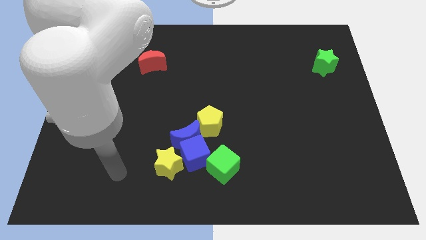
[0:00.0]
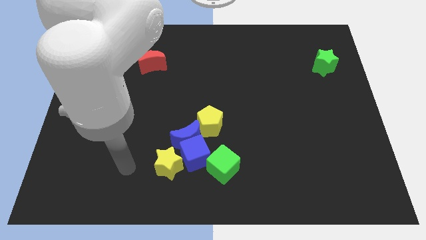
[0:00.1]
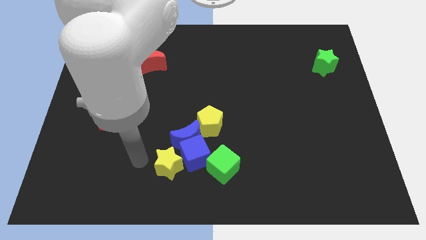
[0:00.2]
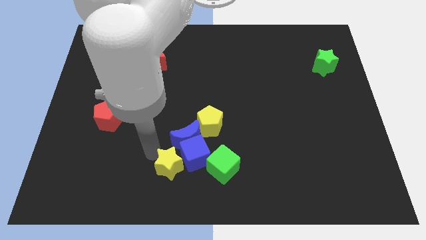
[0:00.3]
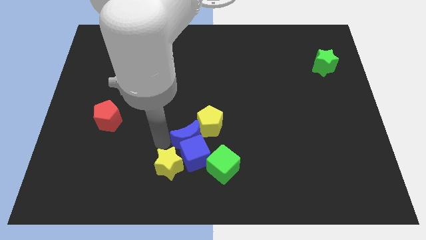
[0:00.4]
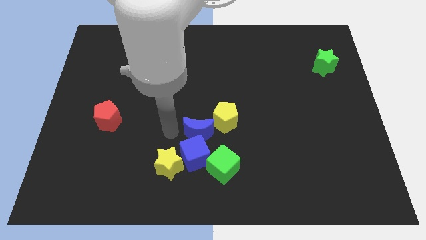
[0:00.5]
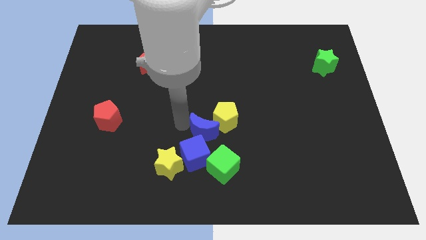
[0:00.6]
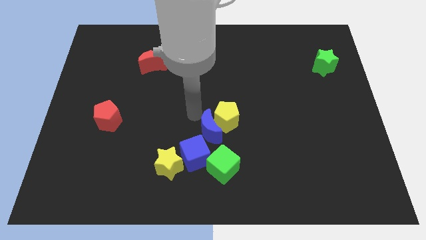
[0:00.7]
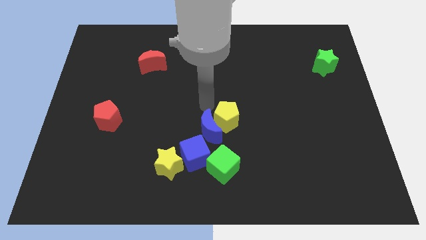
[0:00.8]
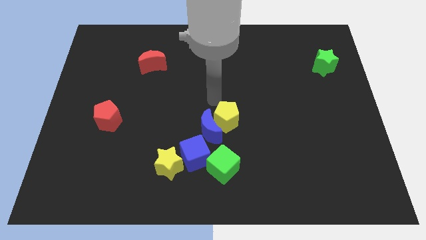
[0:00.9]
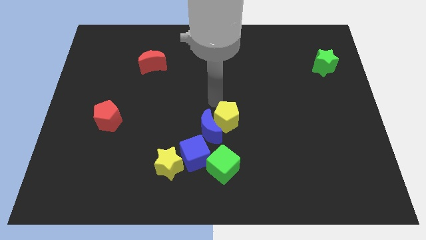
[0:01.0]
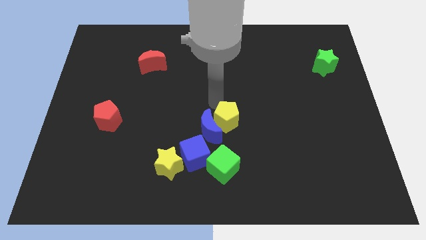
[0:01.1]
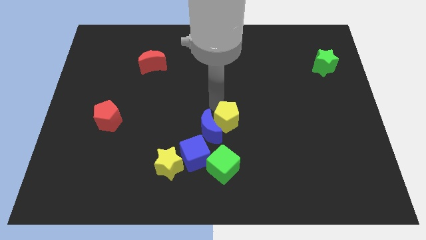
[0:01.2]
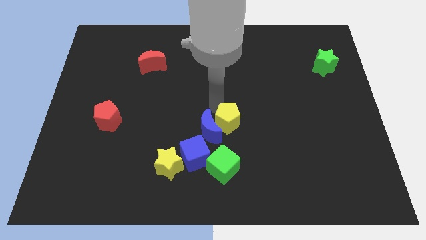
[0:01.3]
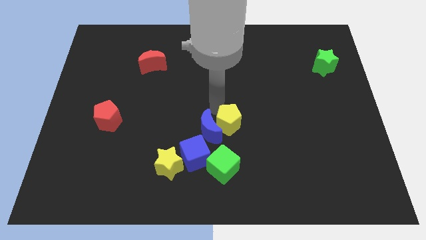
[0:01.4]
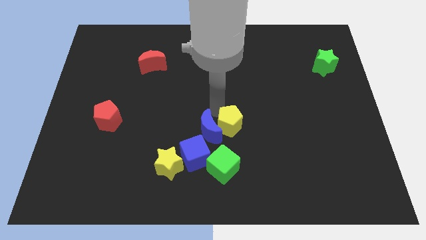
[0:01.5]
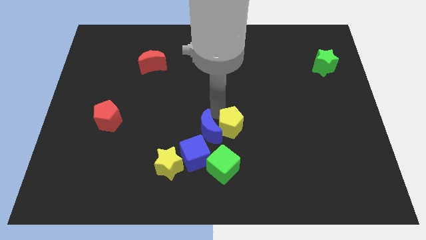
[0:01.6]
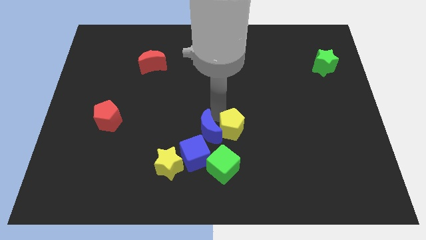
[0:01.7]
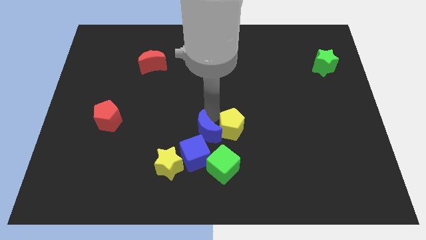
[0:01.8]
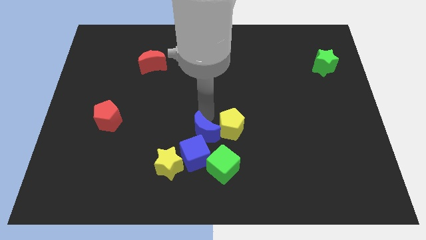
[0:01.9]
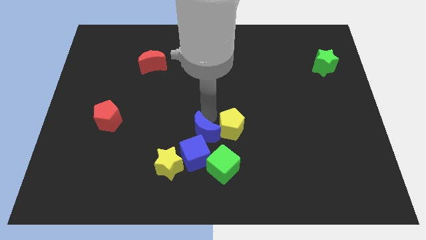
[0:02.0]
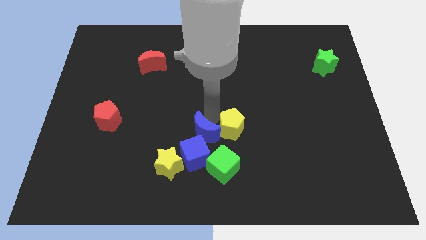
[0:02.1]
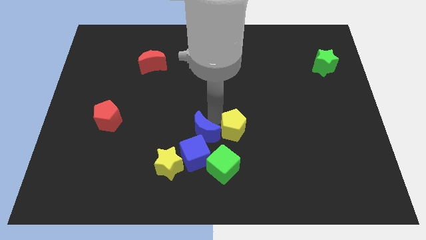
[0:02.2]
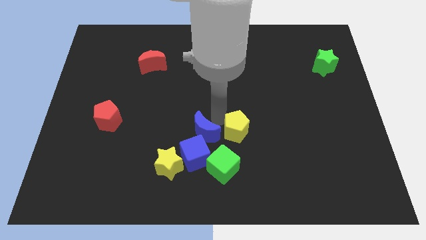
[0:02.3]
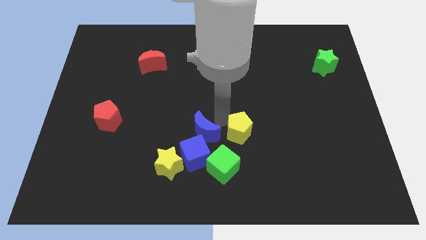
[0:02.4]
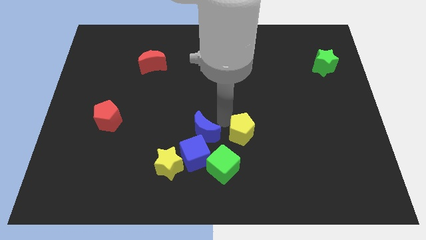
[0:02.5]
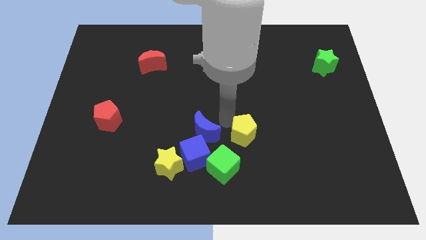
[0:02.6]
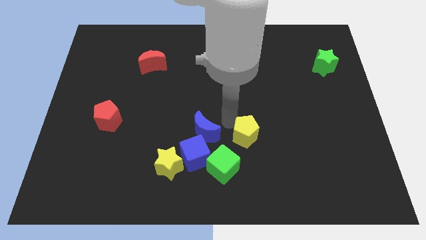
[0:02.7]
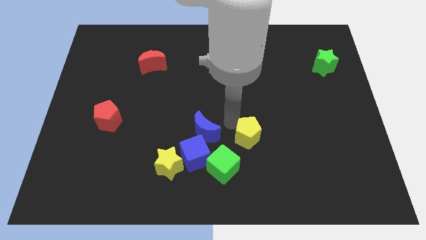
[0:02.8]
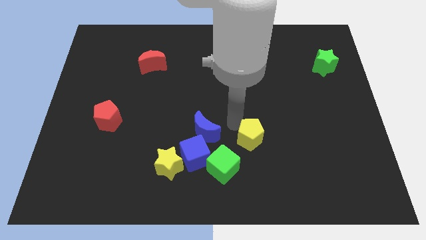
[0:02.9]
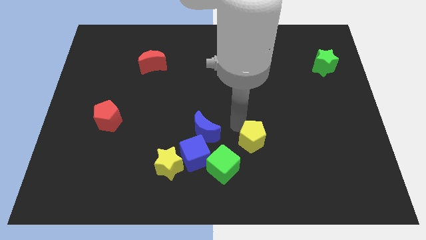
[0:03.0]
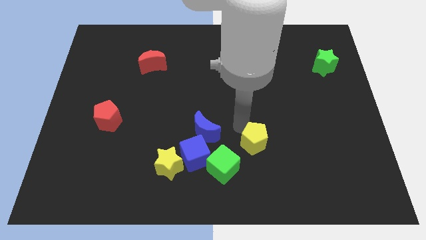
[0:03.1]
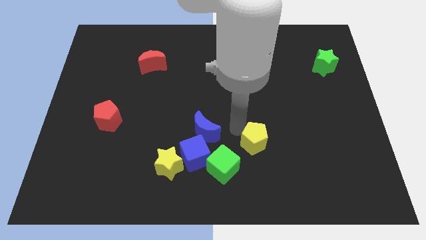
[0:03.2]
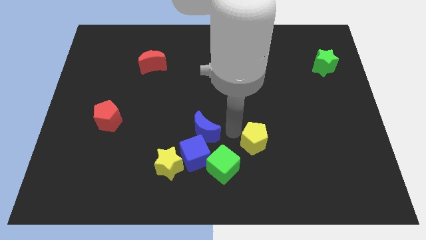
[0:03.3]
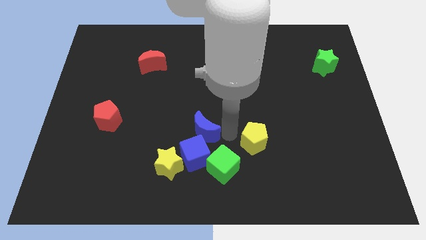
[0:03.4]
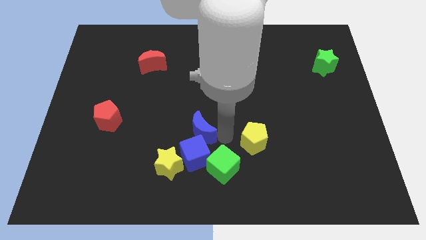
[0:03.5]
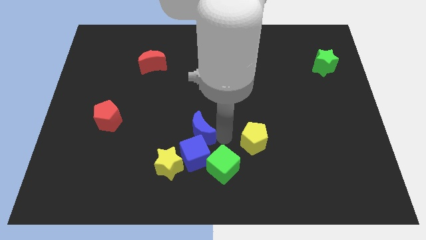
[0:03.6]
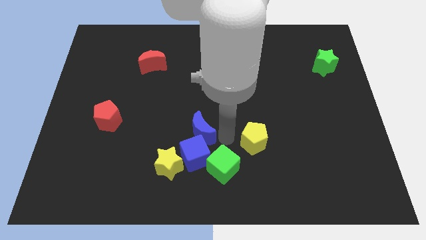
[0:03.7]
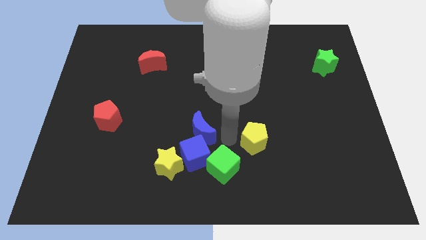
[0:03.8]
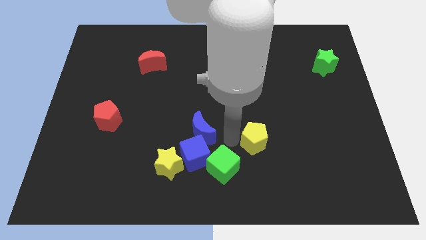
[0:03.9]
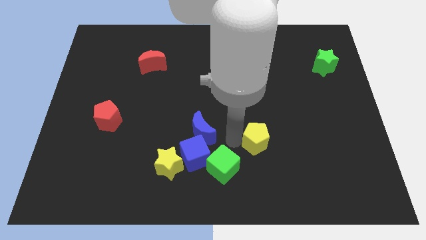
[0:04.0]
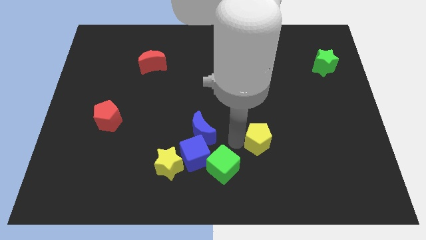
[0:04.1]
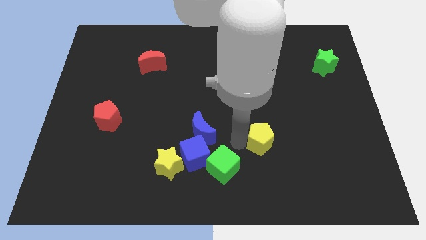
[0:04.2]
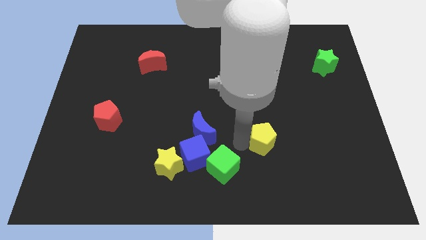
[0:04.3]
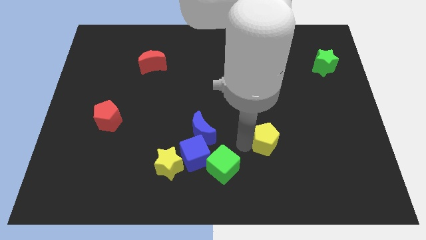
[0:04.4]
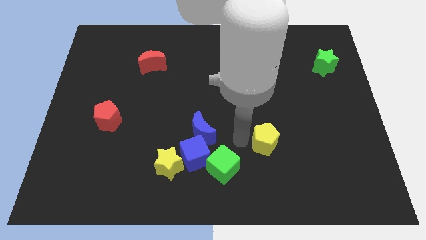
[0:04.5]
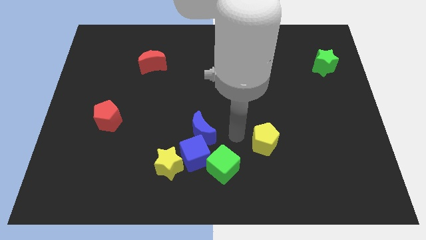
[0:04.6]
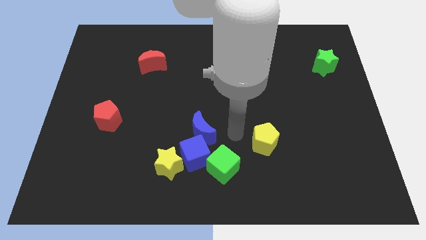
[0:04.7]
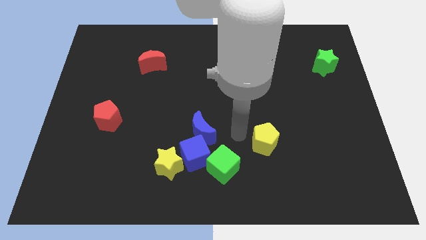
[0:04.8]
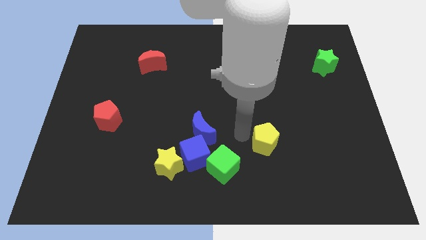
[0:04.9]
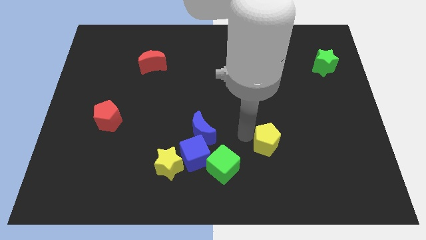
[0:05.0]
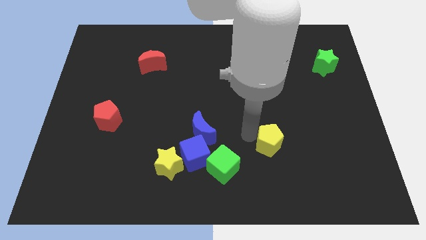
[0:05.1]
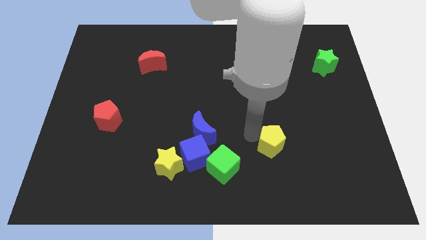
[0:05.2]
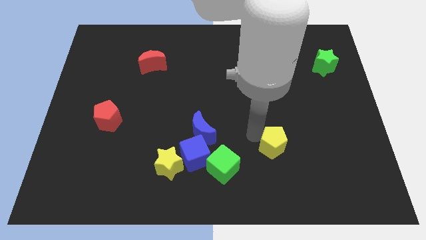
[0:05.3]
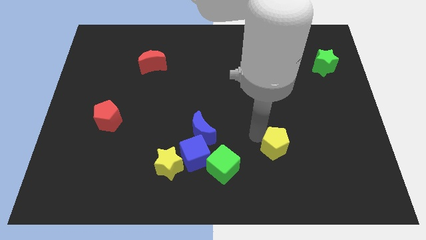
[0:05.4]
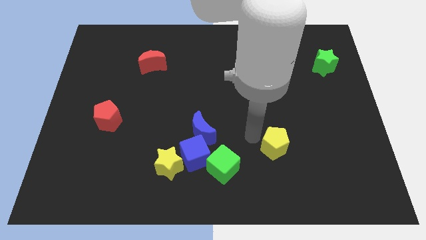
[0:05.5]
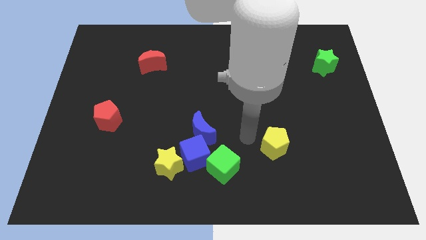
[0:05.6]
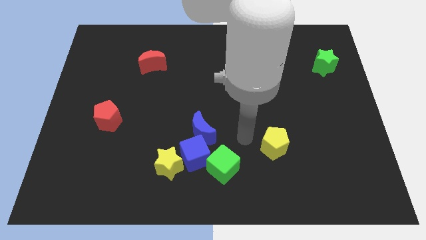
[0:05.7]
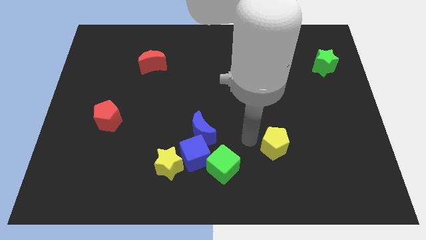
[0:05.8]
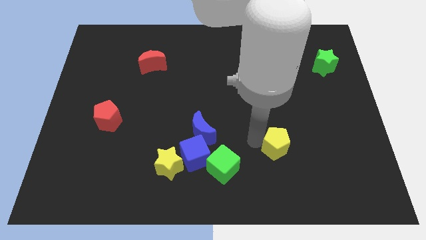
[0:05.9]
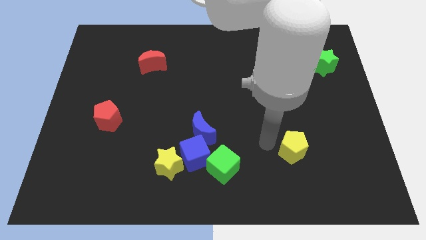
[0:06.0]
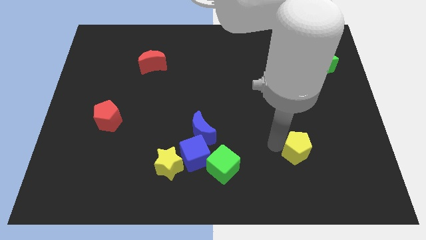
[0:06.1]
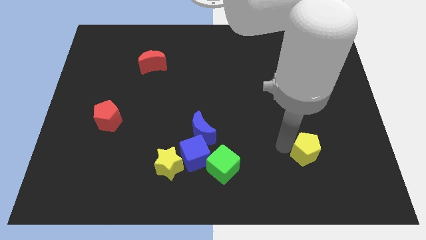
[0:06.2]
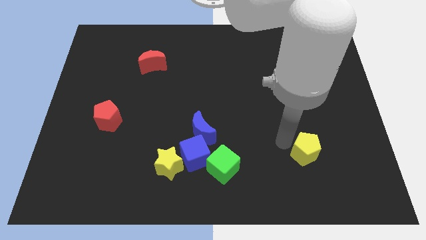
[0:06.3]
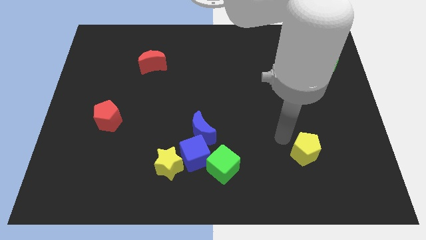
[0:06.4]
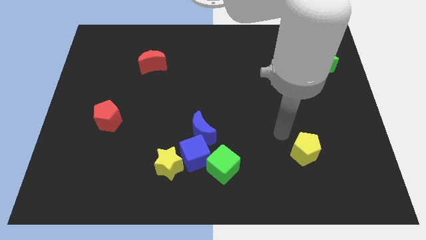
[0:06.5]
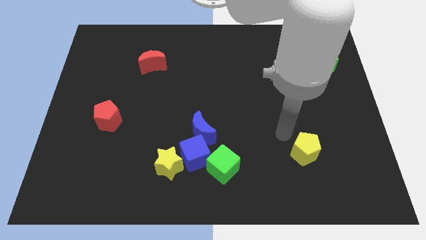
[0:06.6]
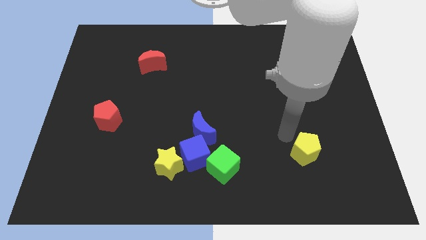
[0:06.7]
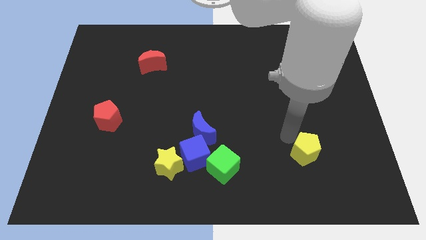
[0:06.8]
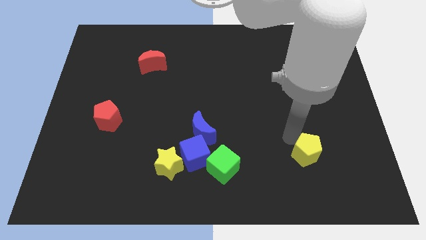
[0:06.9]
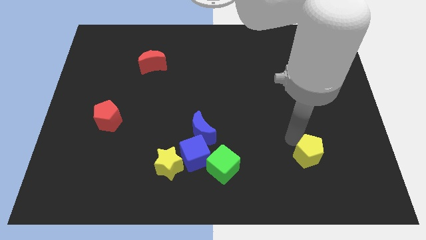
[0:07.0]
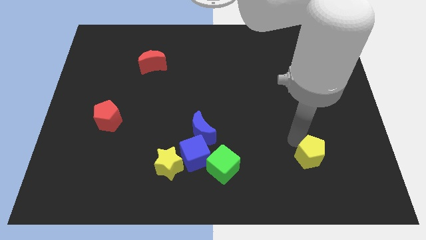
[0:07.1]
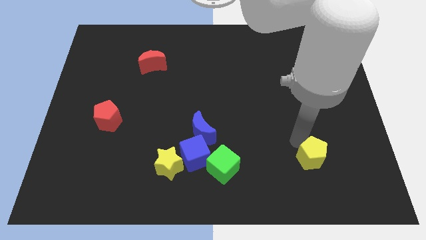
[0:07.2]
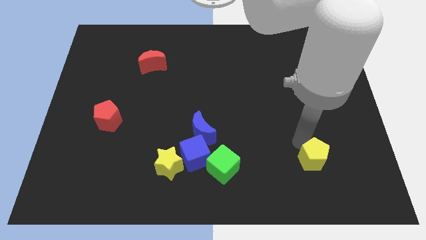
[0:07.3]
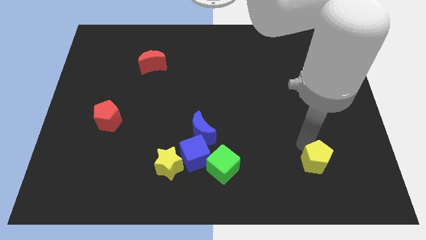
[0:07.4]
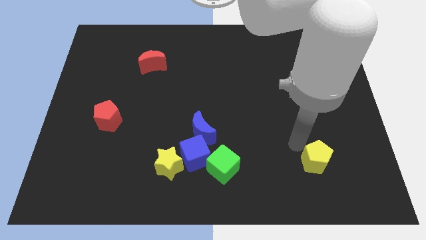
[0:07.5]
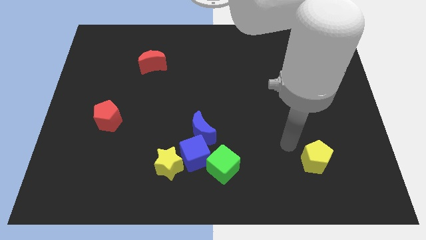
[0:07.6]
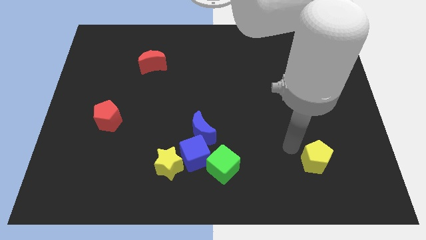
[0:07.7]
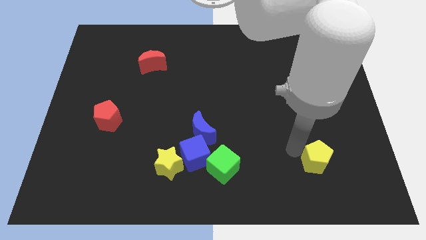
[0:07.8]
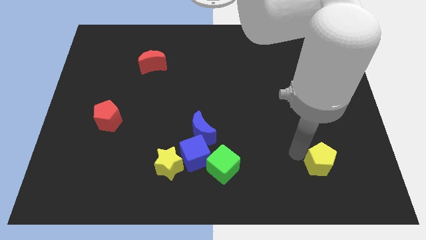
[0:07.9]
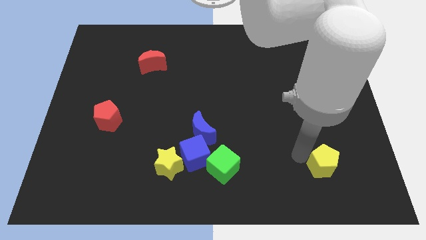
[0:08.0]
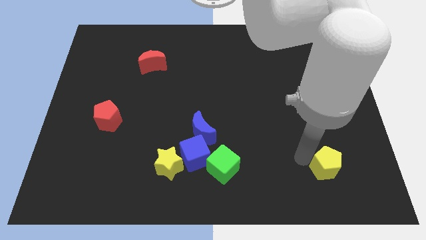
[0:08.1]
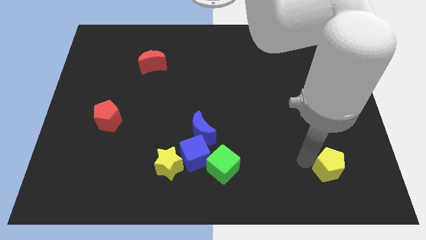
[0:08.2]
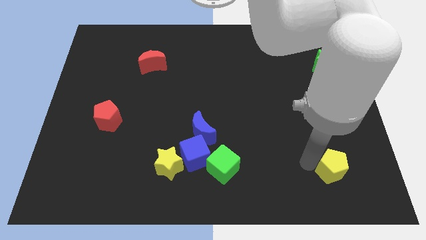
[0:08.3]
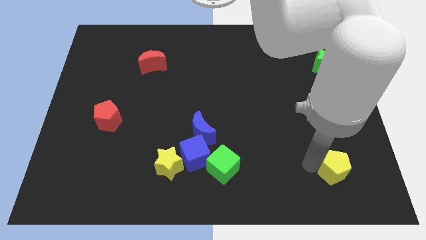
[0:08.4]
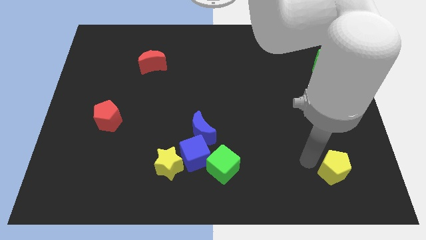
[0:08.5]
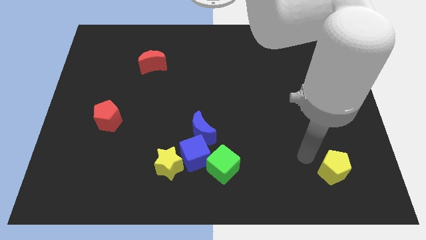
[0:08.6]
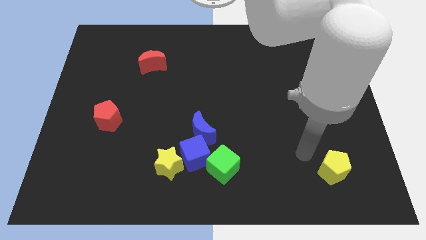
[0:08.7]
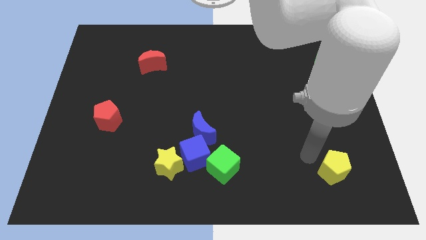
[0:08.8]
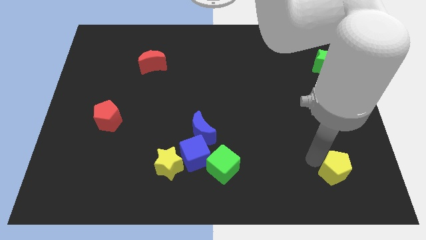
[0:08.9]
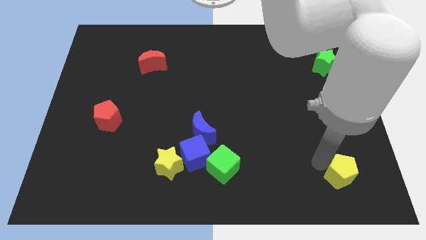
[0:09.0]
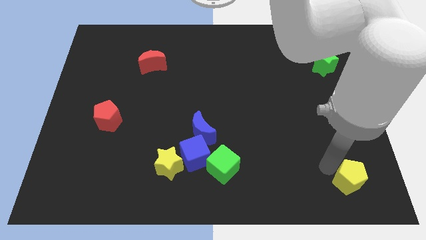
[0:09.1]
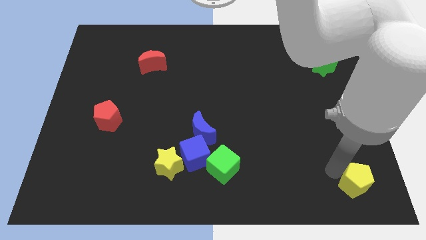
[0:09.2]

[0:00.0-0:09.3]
push the yellow pentagon to the bottom right
